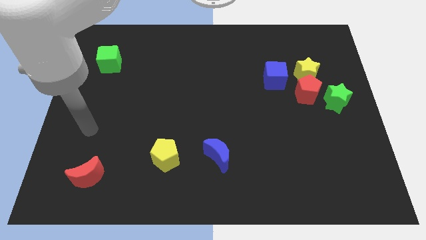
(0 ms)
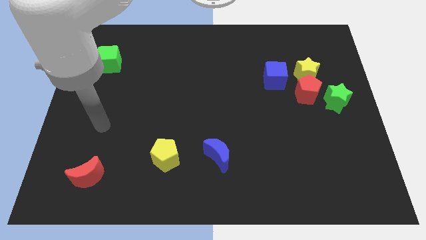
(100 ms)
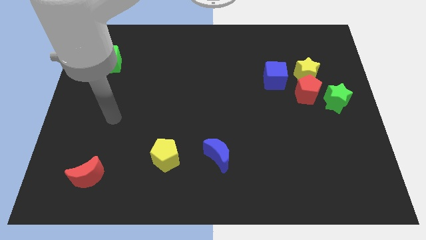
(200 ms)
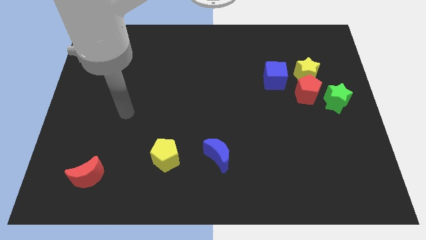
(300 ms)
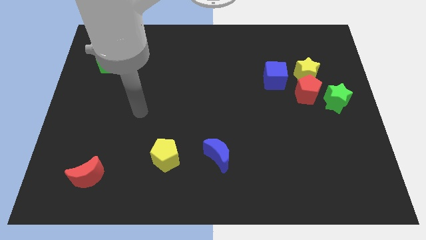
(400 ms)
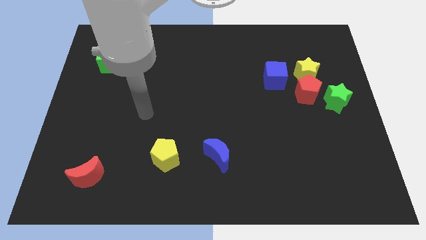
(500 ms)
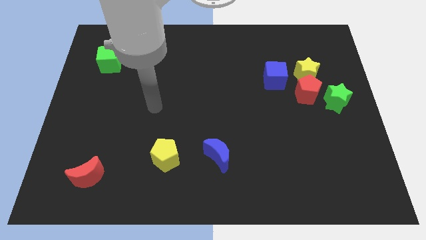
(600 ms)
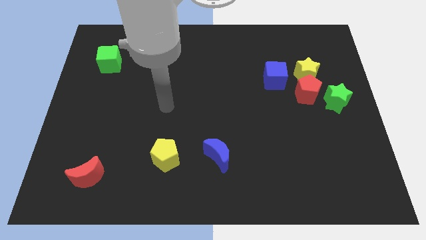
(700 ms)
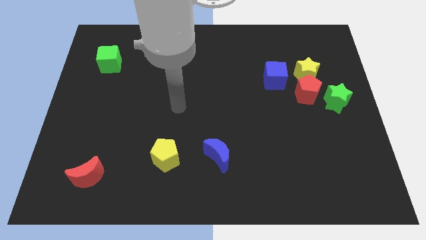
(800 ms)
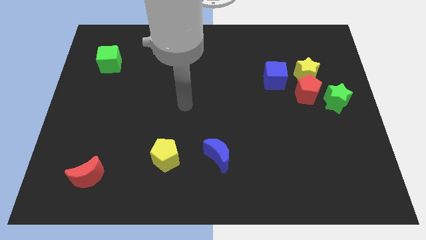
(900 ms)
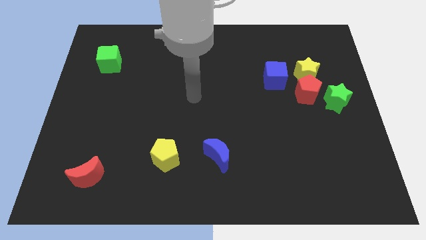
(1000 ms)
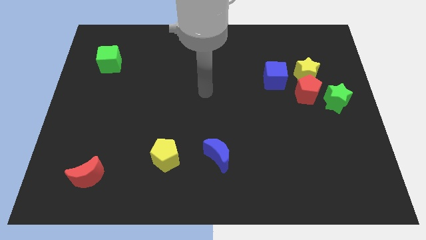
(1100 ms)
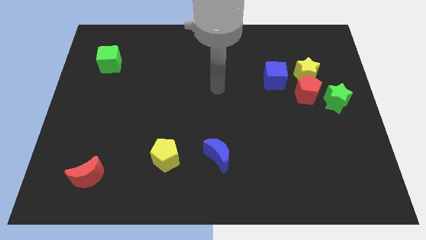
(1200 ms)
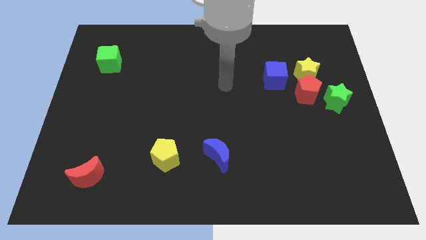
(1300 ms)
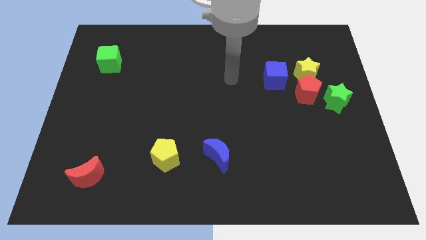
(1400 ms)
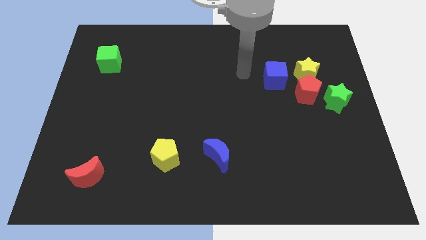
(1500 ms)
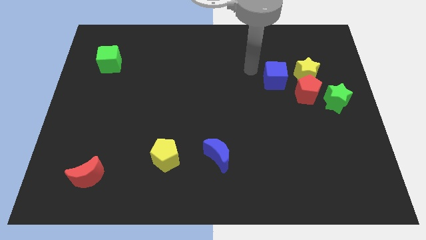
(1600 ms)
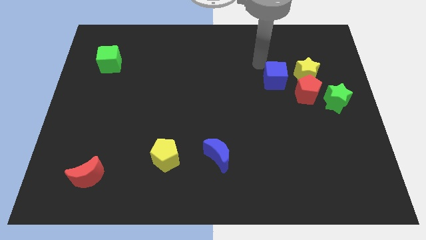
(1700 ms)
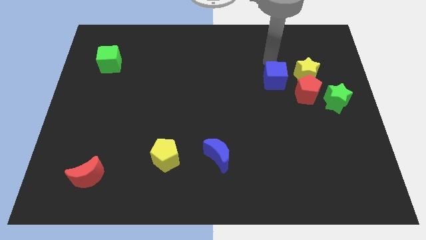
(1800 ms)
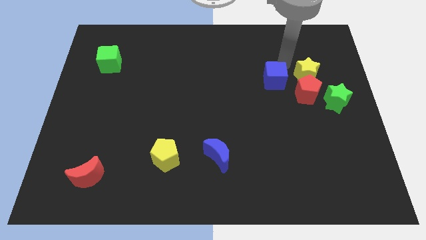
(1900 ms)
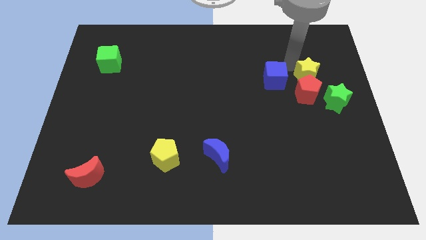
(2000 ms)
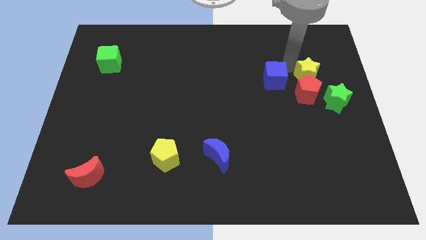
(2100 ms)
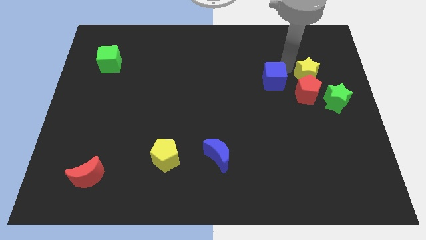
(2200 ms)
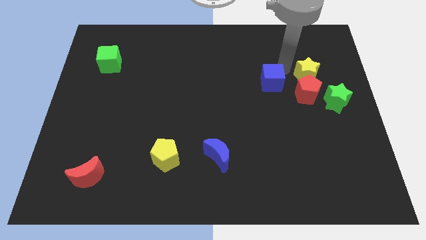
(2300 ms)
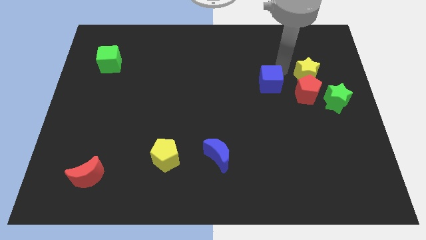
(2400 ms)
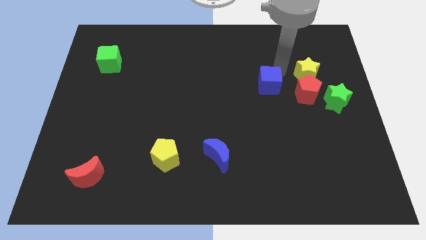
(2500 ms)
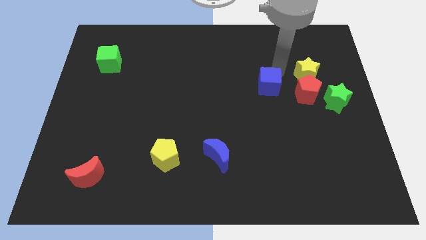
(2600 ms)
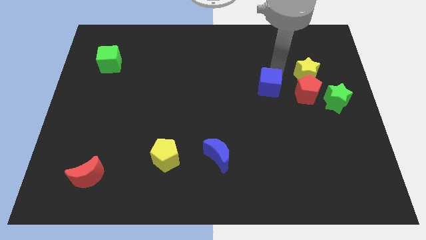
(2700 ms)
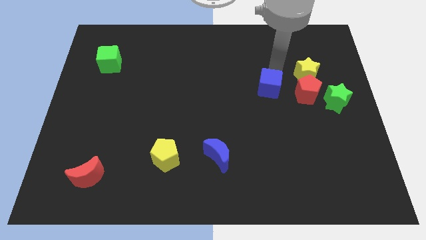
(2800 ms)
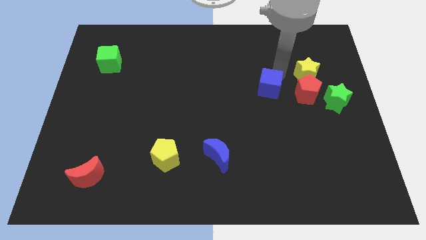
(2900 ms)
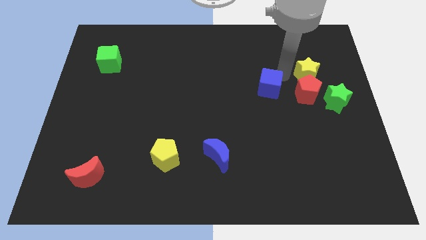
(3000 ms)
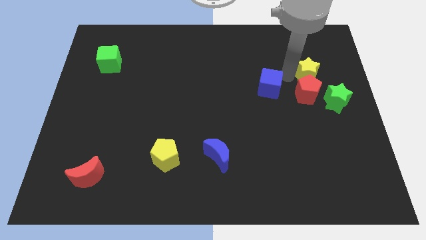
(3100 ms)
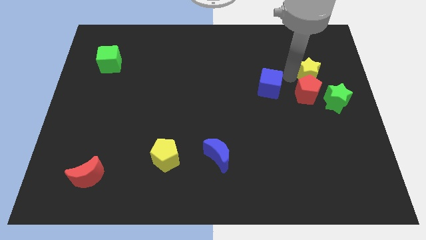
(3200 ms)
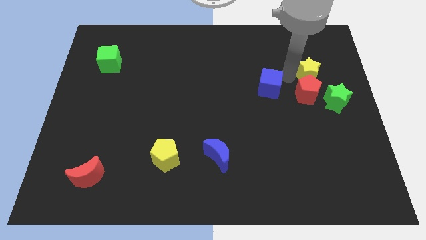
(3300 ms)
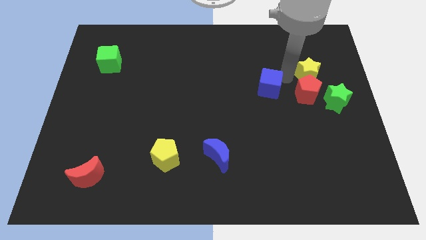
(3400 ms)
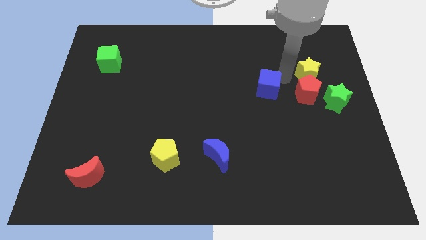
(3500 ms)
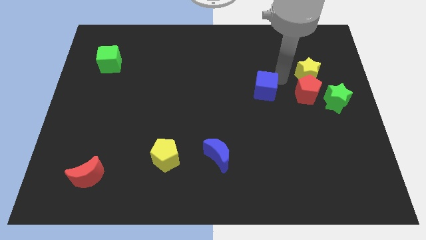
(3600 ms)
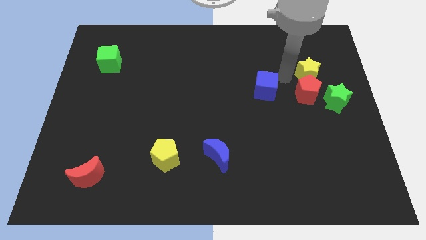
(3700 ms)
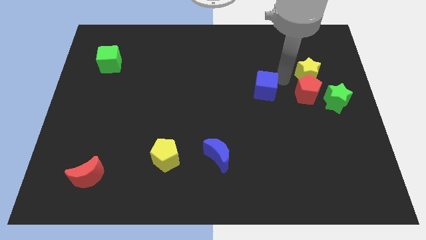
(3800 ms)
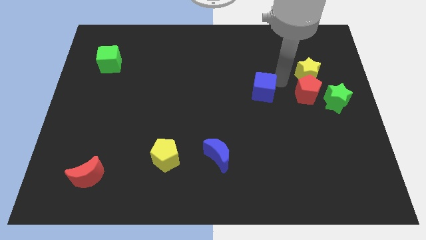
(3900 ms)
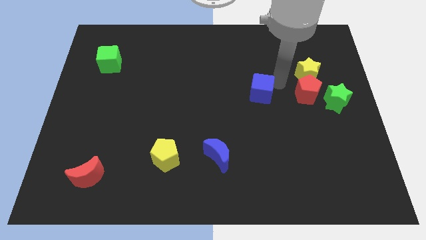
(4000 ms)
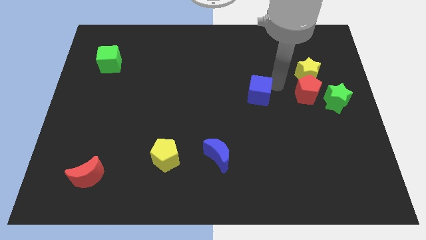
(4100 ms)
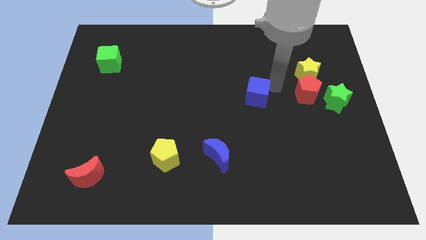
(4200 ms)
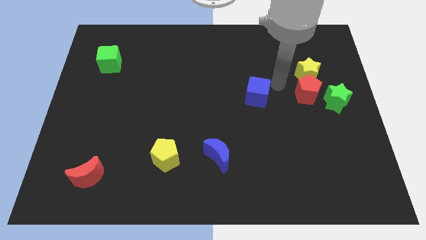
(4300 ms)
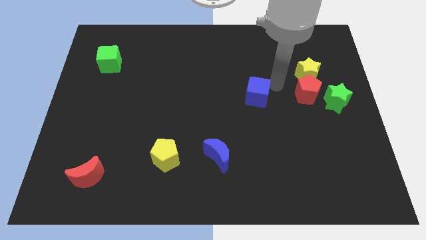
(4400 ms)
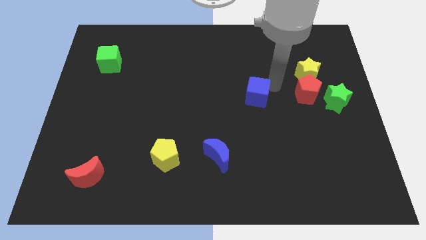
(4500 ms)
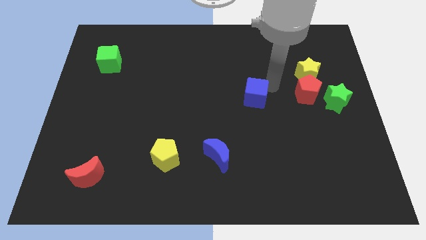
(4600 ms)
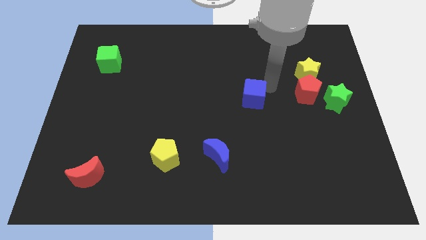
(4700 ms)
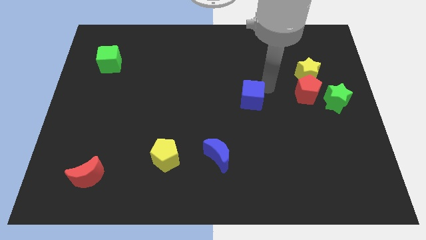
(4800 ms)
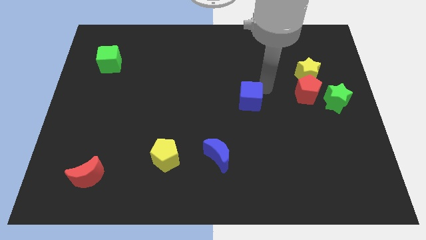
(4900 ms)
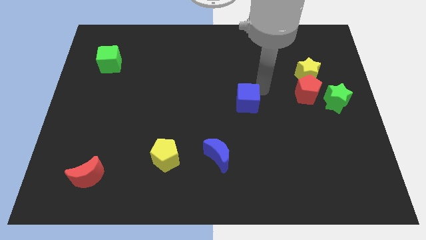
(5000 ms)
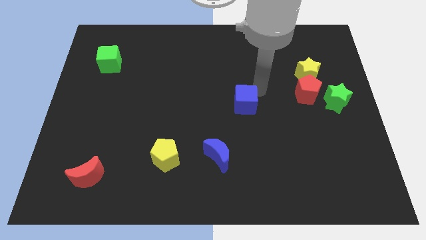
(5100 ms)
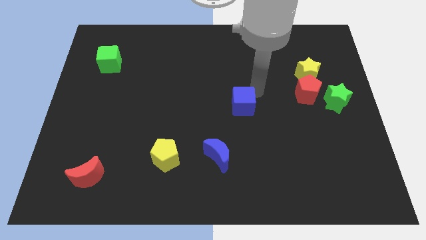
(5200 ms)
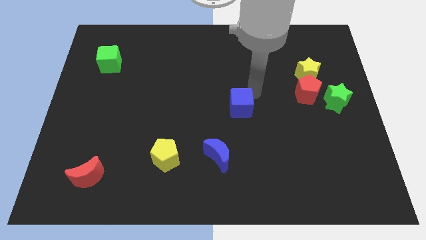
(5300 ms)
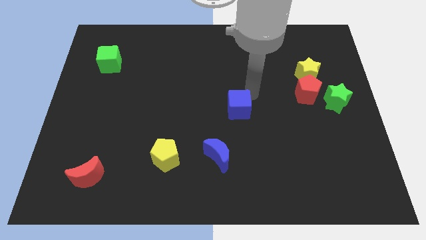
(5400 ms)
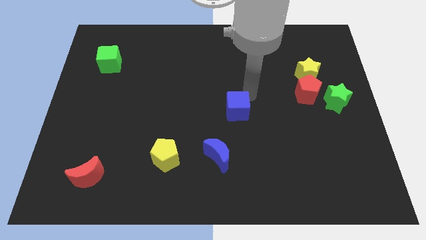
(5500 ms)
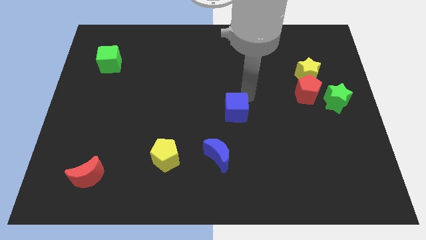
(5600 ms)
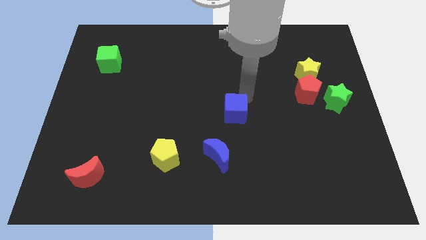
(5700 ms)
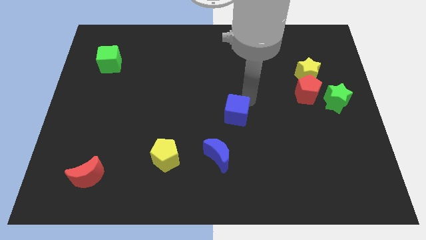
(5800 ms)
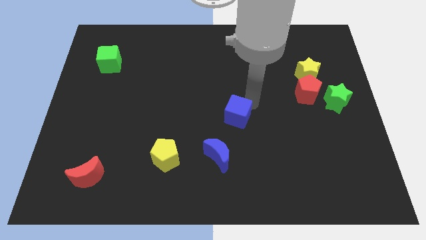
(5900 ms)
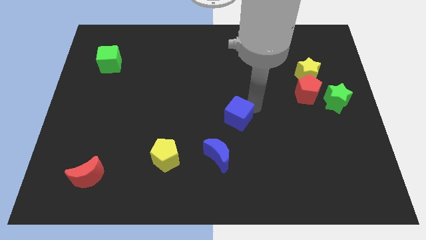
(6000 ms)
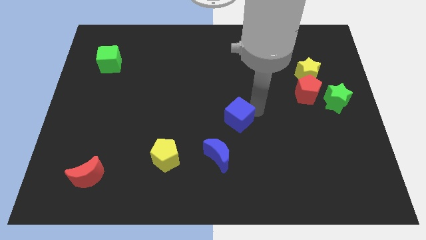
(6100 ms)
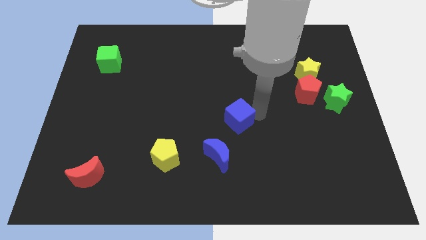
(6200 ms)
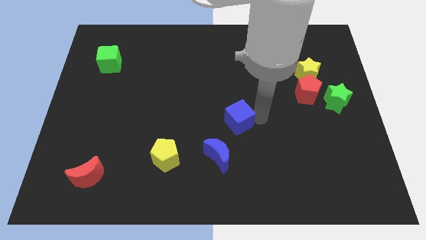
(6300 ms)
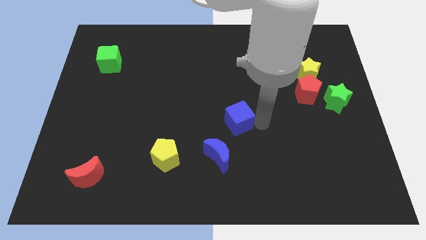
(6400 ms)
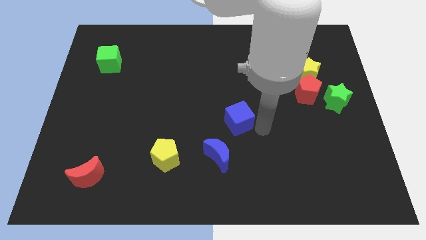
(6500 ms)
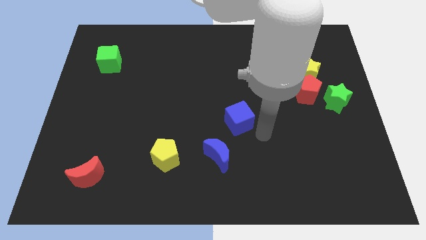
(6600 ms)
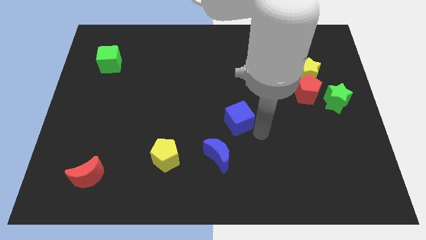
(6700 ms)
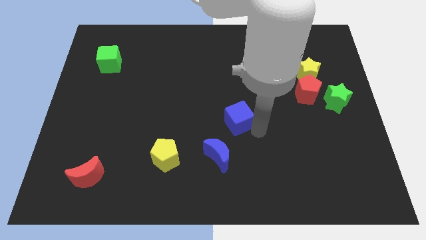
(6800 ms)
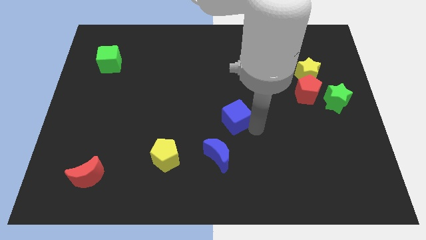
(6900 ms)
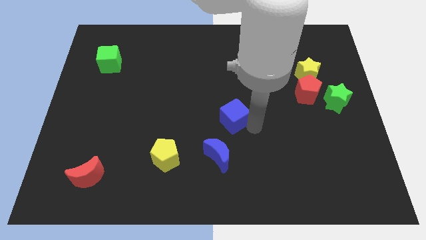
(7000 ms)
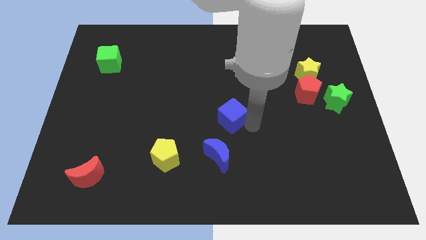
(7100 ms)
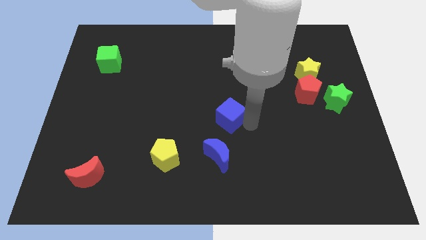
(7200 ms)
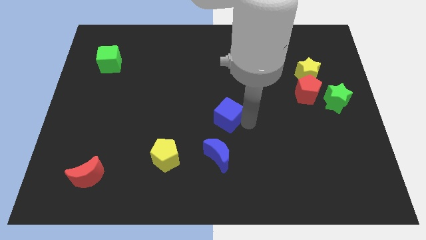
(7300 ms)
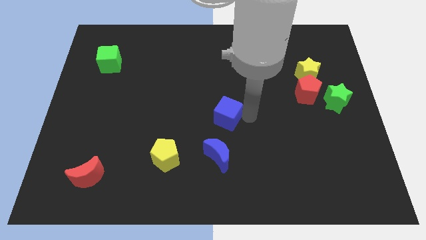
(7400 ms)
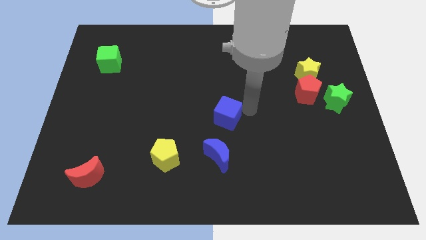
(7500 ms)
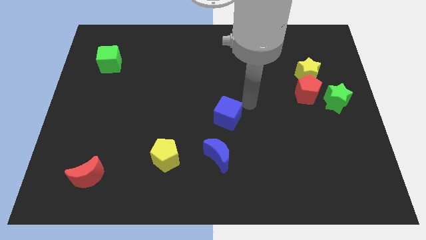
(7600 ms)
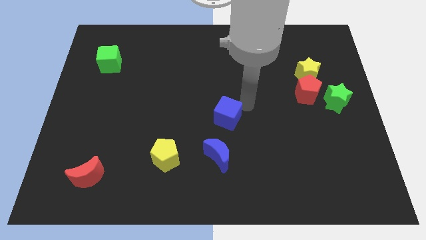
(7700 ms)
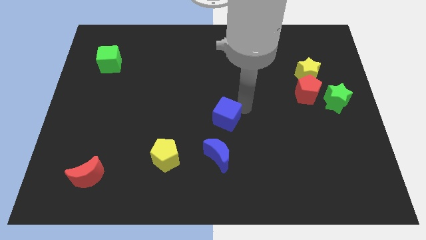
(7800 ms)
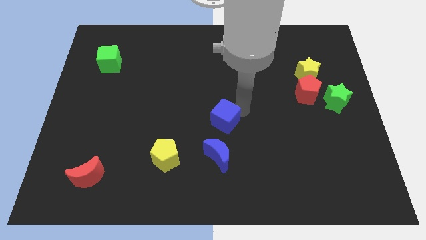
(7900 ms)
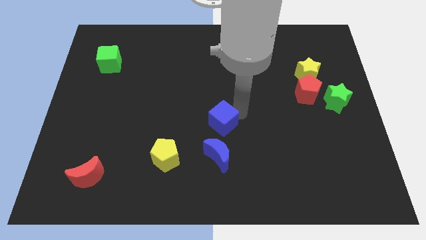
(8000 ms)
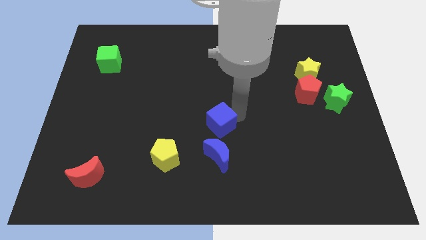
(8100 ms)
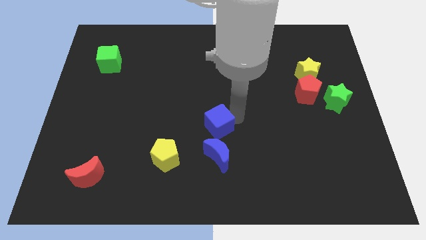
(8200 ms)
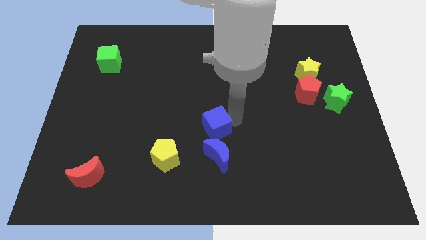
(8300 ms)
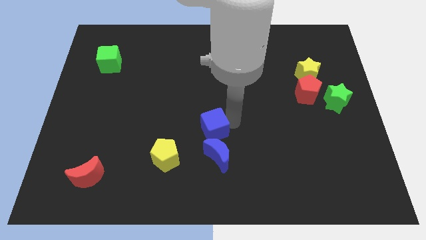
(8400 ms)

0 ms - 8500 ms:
push the blue cube to the top left side of the blue moon
